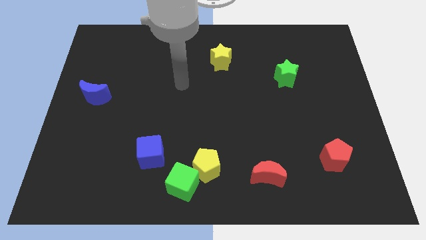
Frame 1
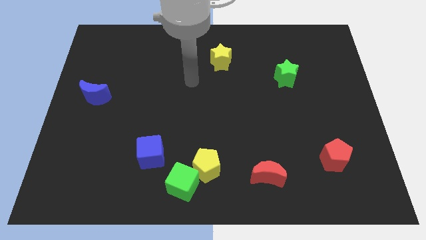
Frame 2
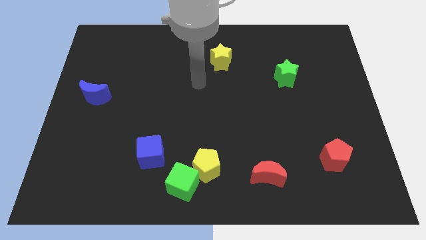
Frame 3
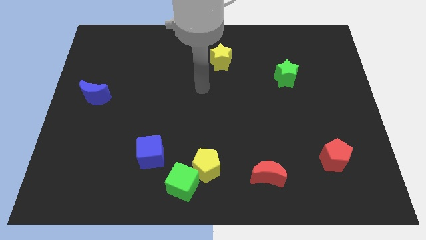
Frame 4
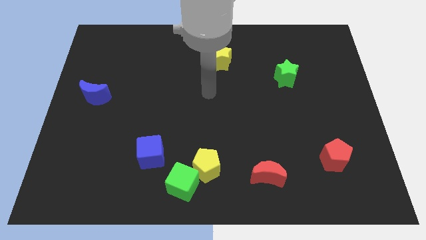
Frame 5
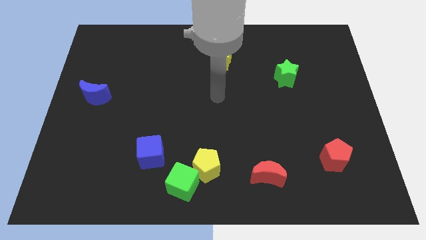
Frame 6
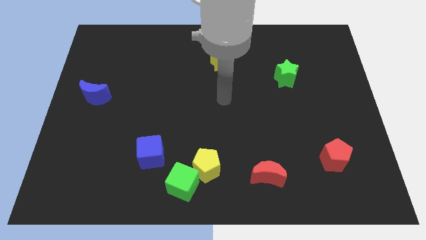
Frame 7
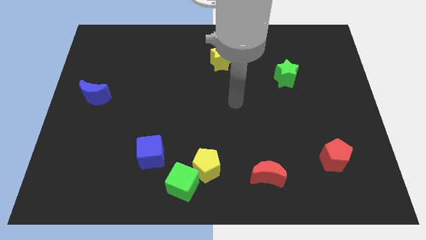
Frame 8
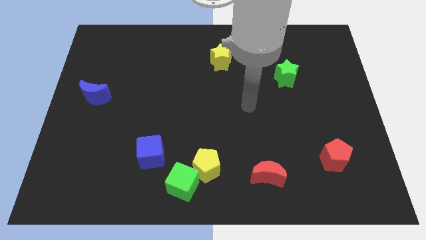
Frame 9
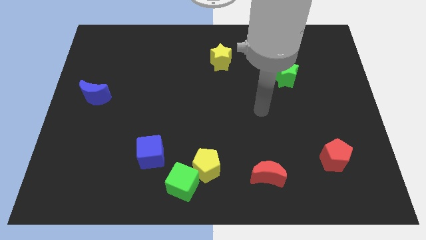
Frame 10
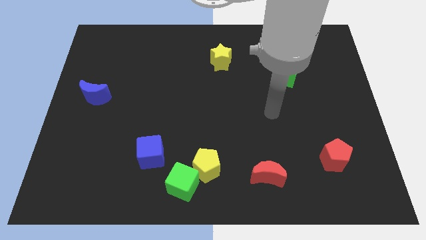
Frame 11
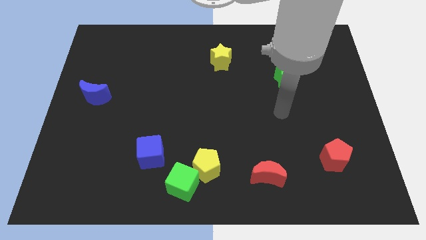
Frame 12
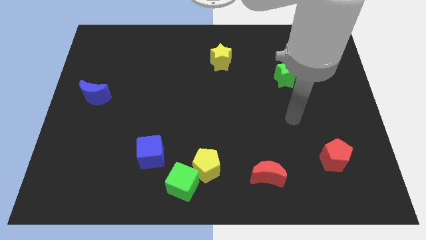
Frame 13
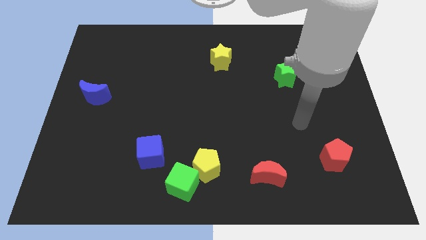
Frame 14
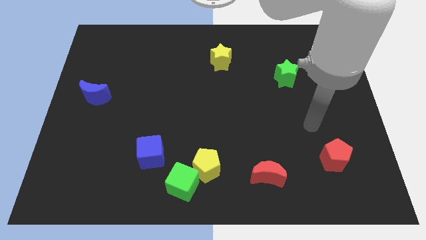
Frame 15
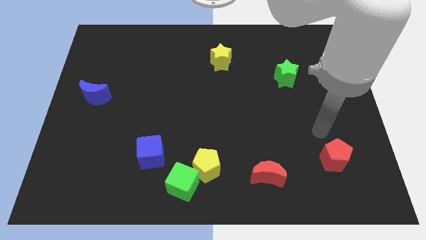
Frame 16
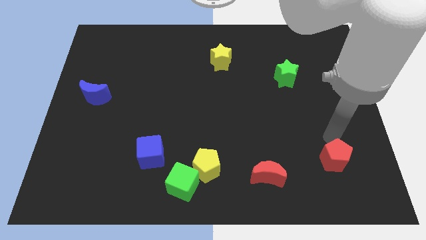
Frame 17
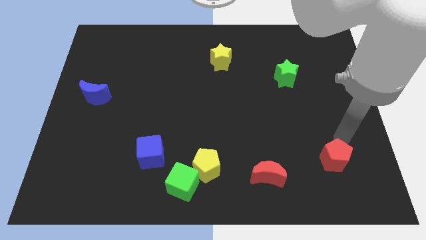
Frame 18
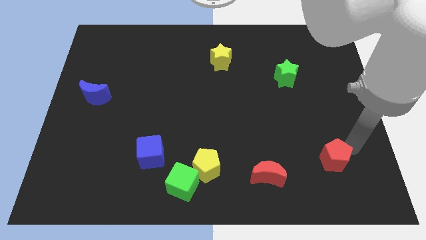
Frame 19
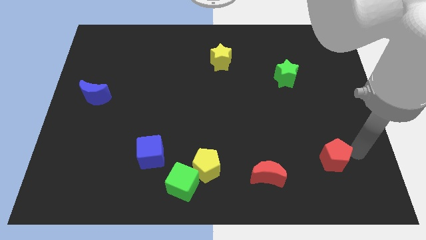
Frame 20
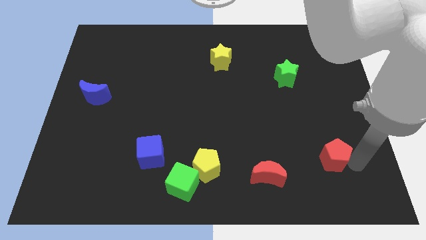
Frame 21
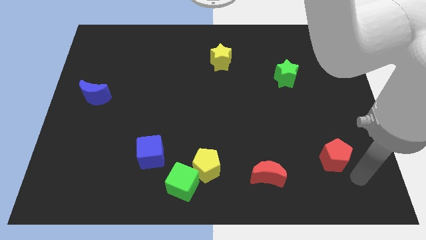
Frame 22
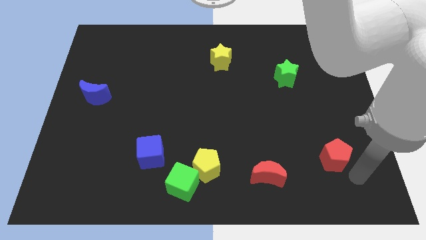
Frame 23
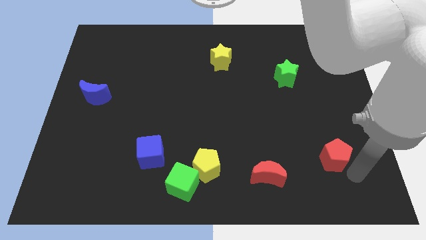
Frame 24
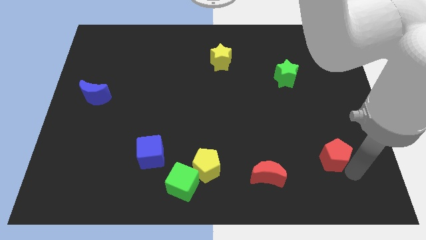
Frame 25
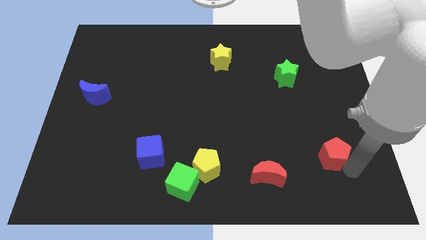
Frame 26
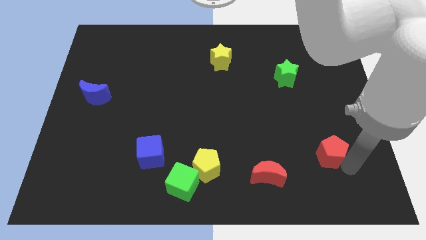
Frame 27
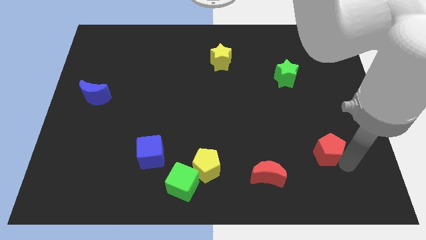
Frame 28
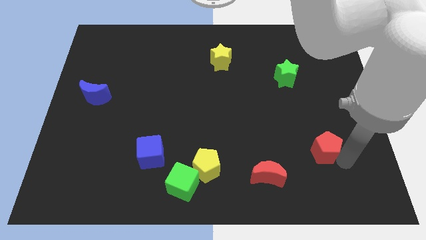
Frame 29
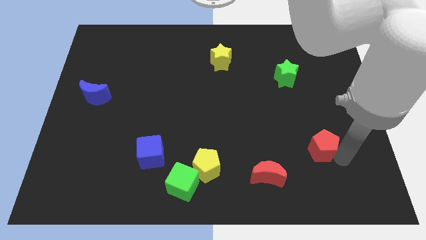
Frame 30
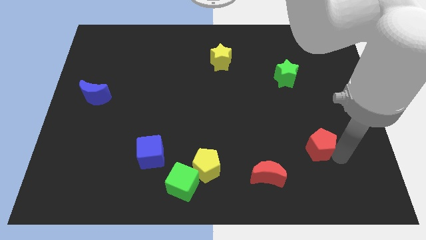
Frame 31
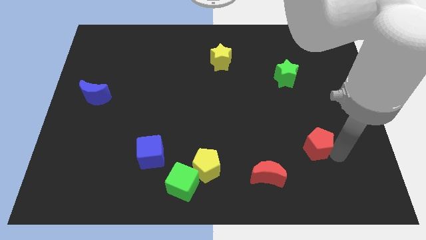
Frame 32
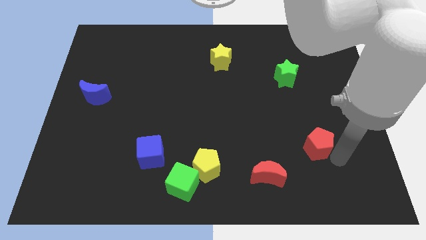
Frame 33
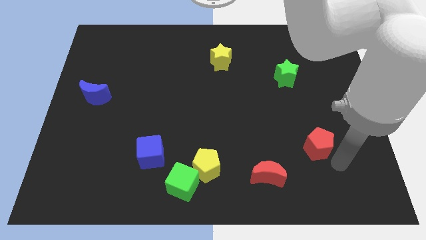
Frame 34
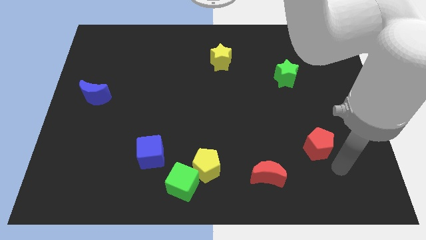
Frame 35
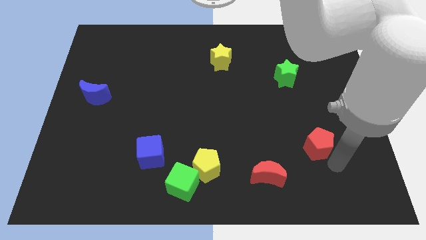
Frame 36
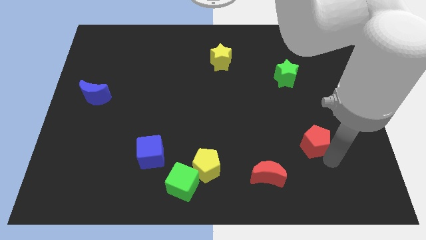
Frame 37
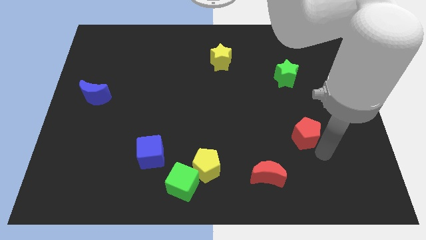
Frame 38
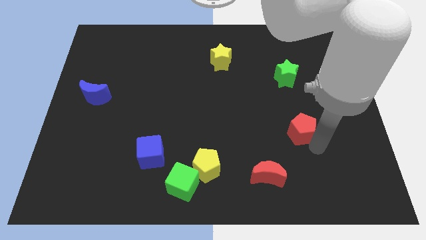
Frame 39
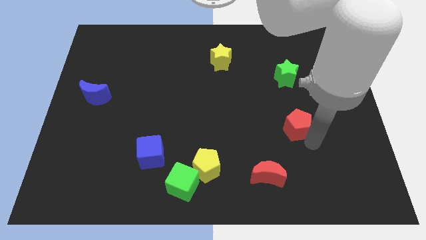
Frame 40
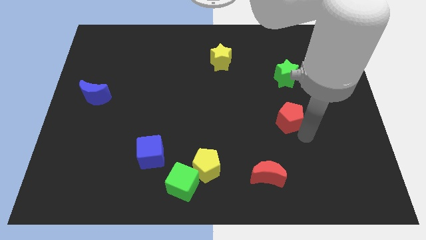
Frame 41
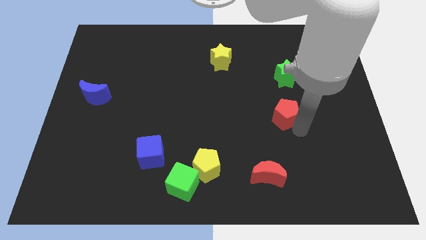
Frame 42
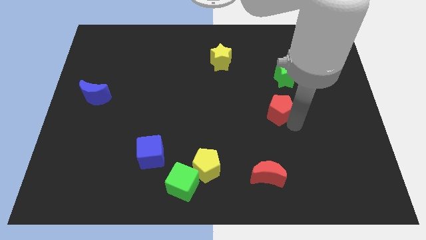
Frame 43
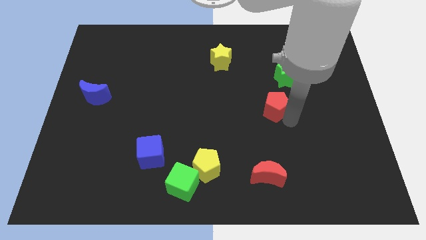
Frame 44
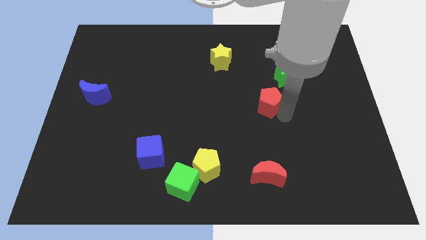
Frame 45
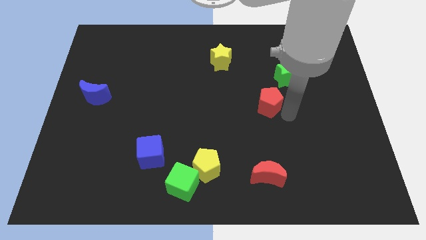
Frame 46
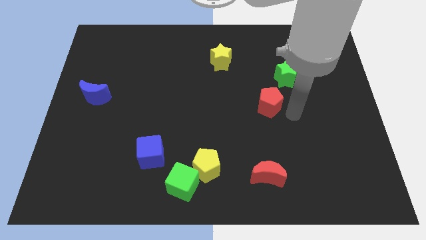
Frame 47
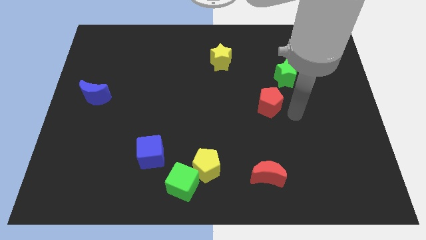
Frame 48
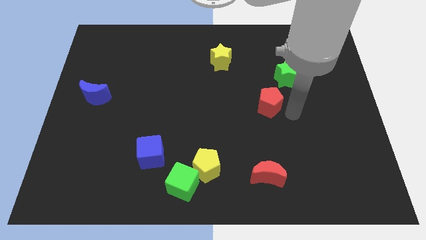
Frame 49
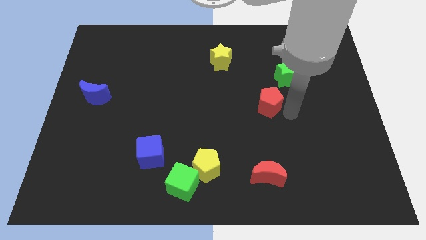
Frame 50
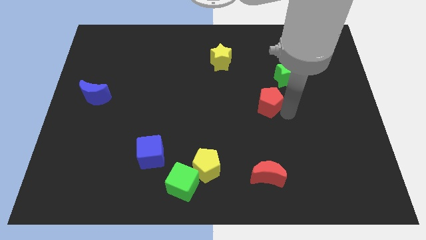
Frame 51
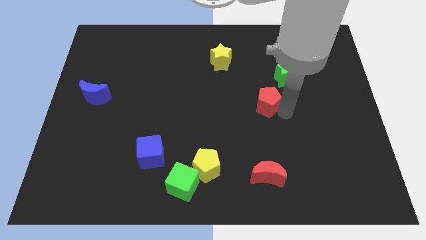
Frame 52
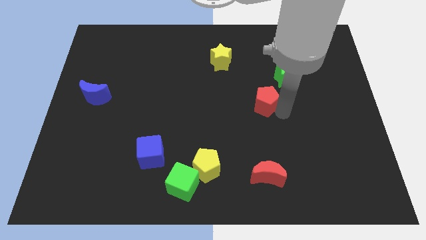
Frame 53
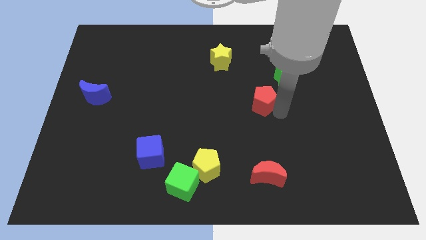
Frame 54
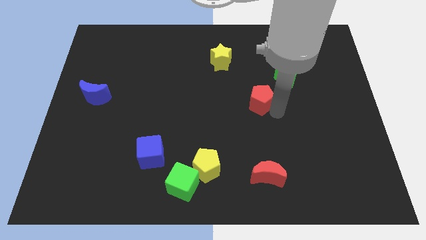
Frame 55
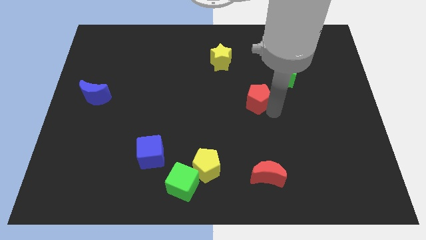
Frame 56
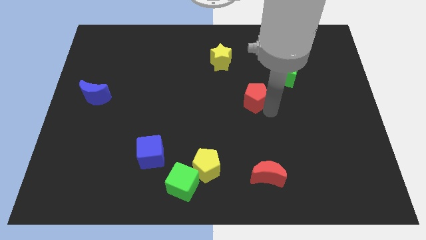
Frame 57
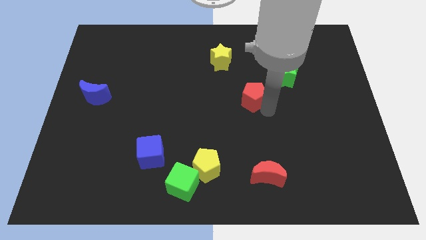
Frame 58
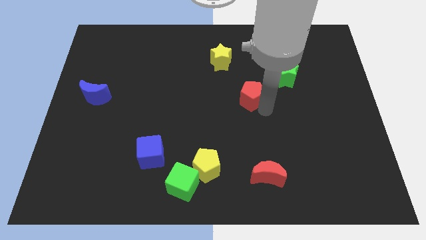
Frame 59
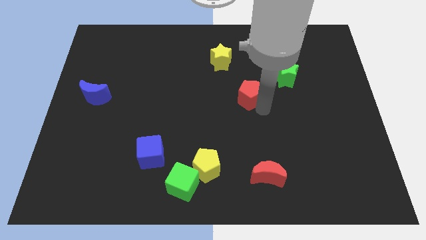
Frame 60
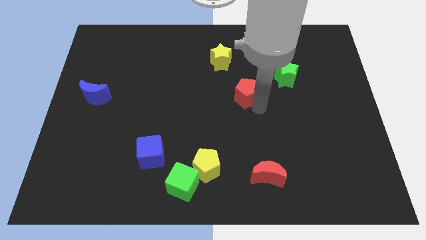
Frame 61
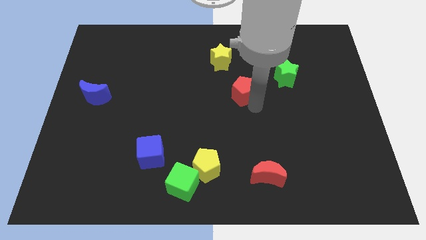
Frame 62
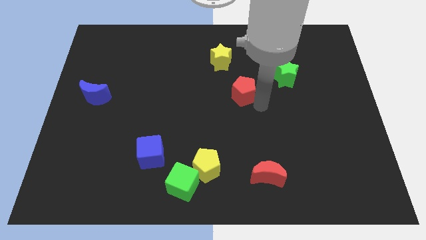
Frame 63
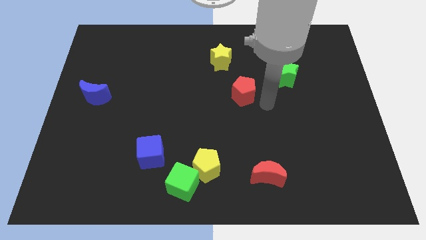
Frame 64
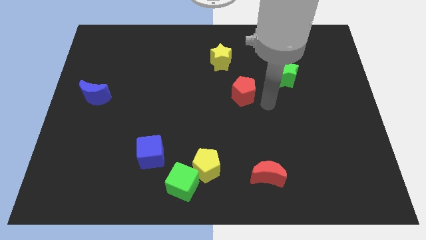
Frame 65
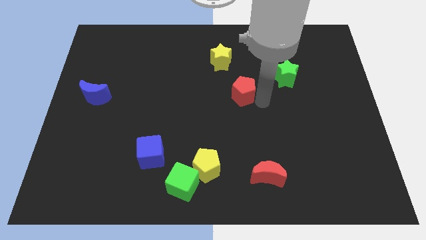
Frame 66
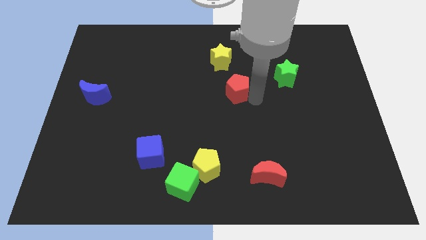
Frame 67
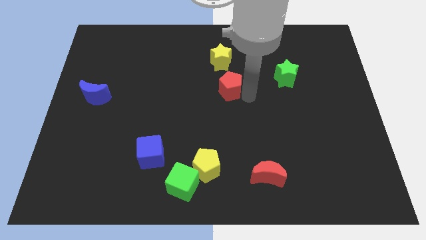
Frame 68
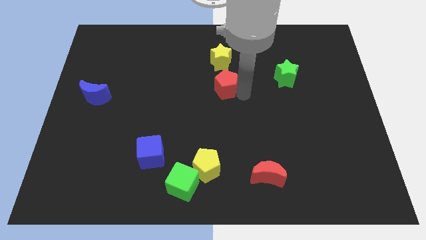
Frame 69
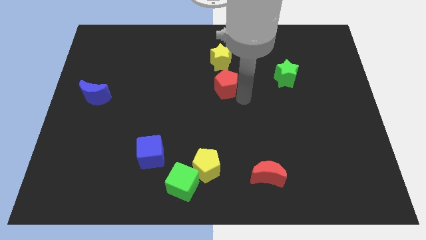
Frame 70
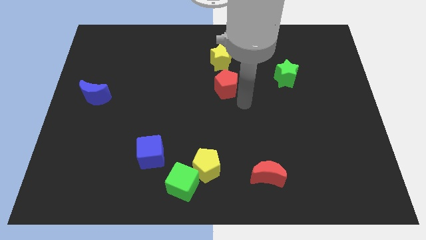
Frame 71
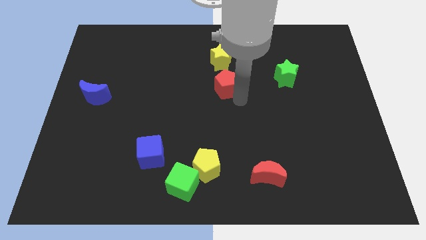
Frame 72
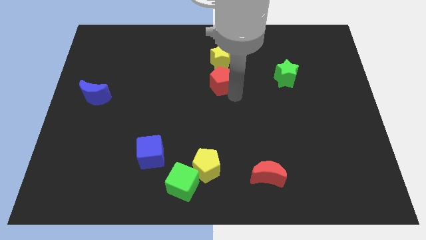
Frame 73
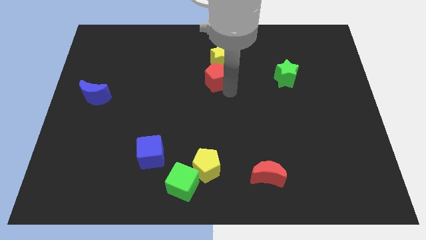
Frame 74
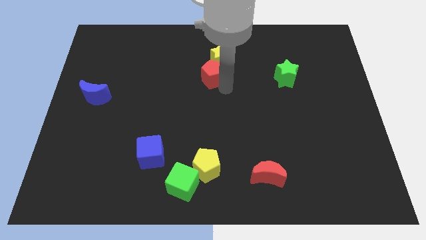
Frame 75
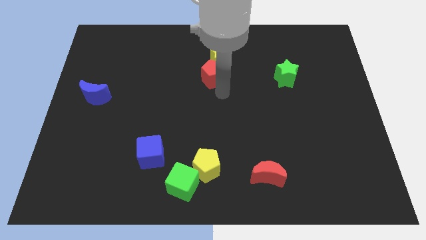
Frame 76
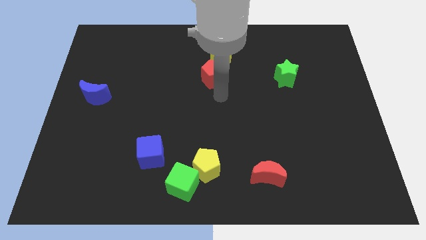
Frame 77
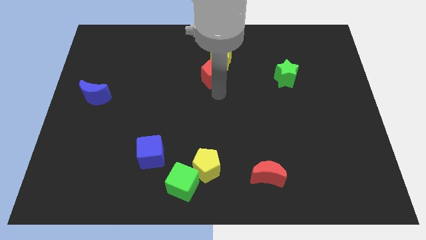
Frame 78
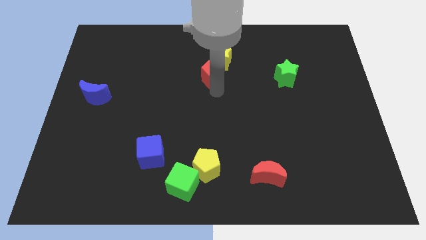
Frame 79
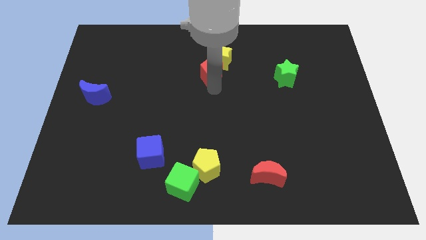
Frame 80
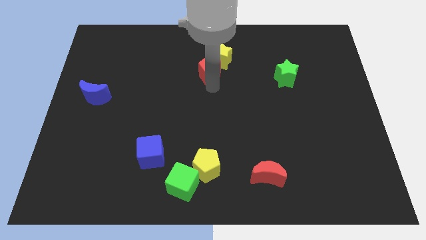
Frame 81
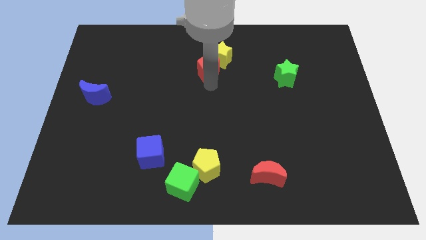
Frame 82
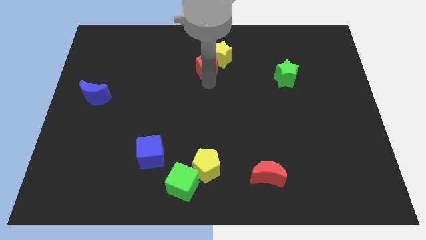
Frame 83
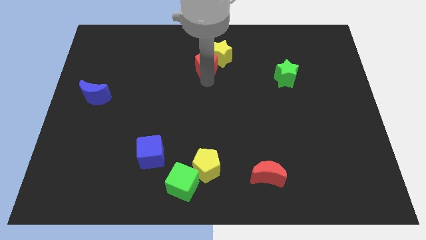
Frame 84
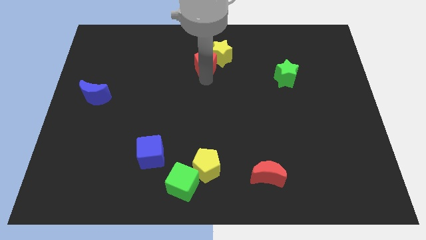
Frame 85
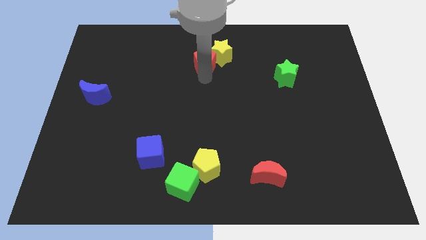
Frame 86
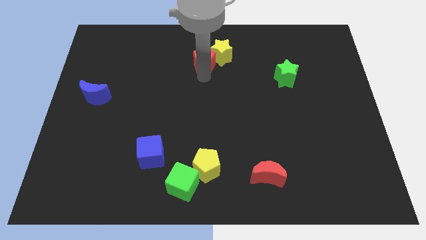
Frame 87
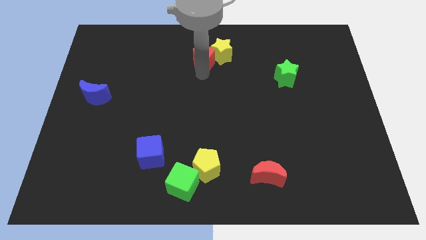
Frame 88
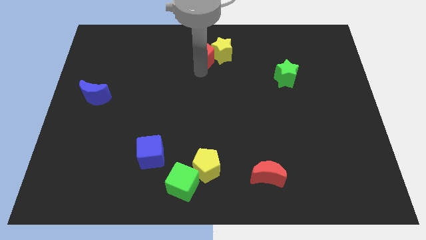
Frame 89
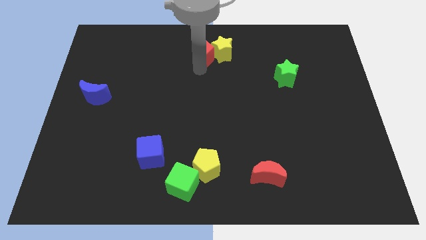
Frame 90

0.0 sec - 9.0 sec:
slide the red pentagon to the towards your base
